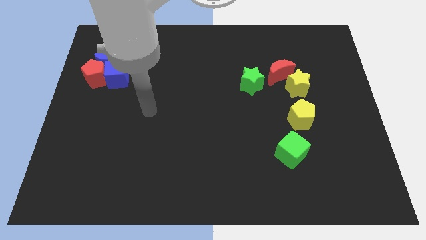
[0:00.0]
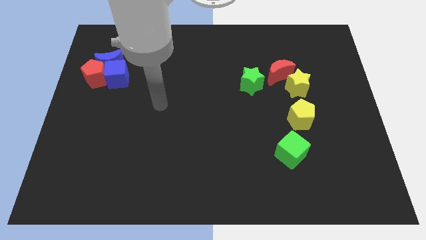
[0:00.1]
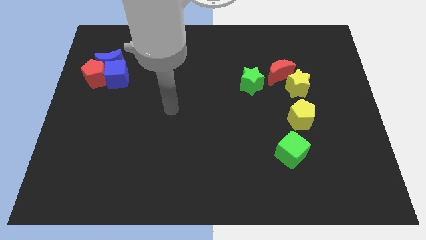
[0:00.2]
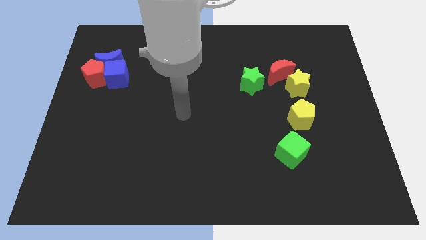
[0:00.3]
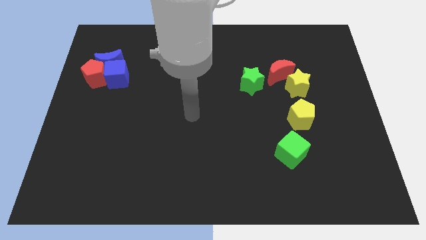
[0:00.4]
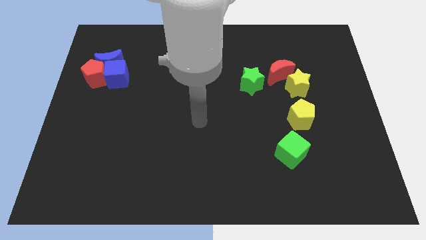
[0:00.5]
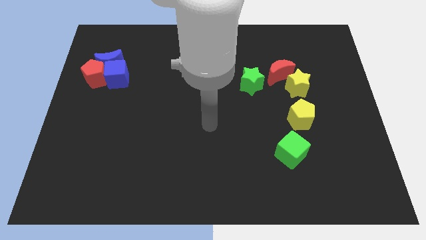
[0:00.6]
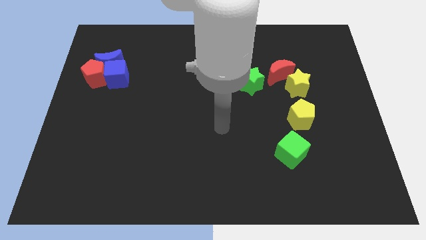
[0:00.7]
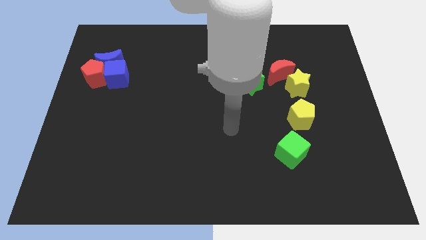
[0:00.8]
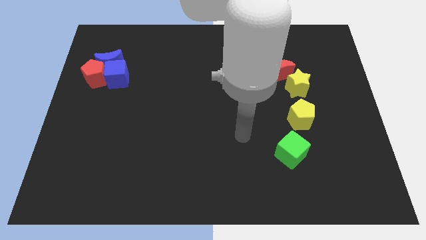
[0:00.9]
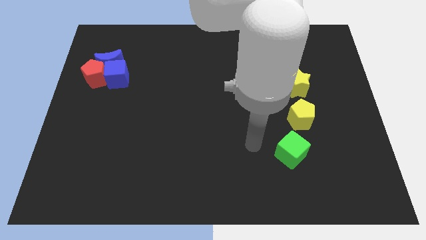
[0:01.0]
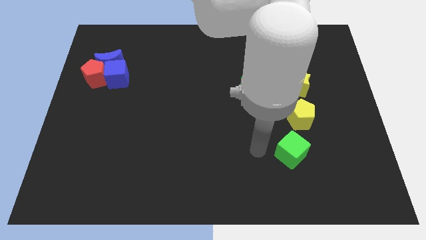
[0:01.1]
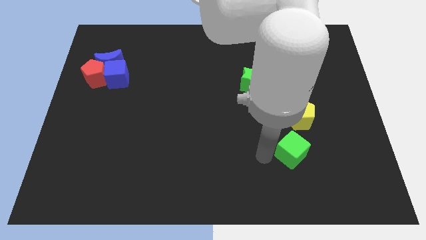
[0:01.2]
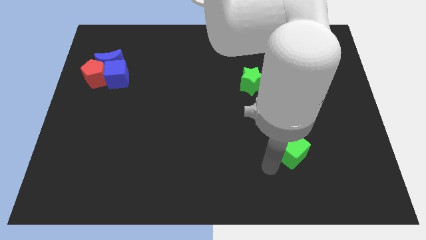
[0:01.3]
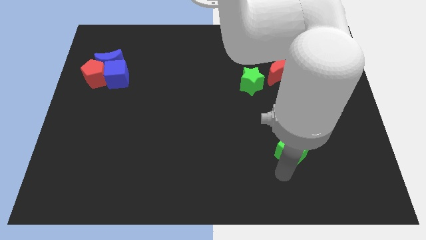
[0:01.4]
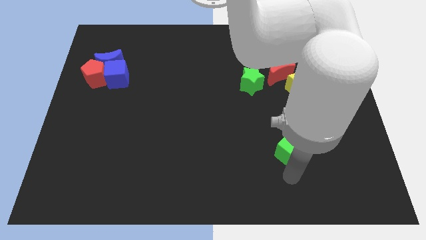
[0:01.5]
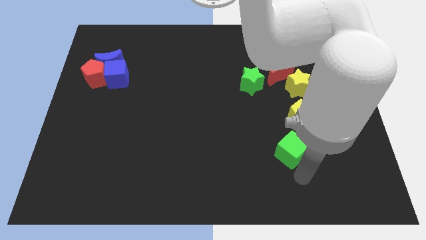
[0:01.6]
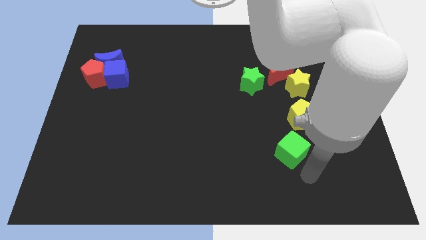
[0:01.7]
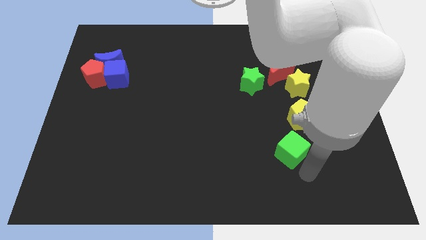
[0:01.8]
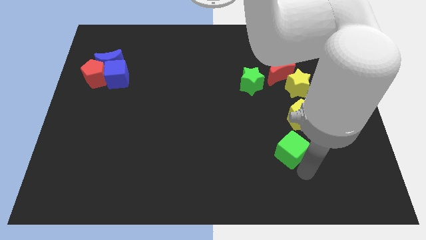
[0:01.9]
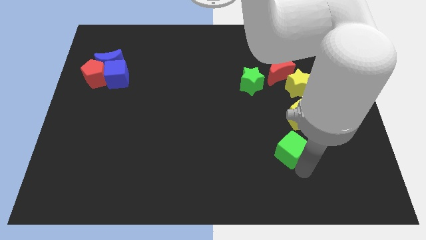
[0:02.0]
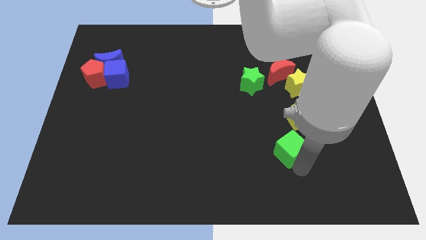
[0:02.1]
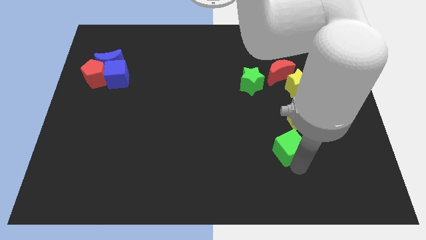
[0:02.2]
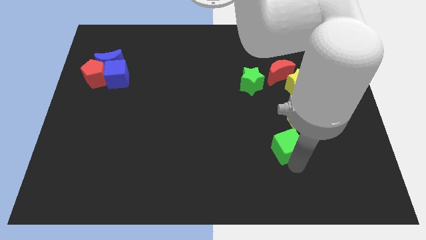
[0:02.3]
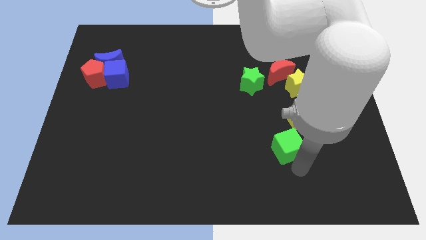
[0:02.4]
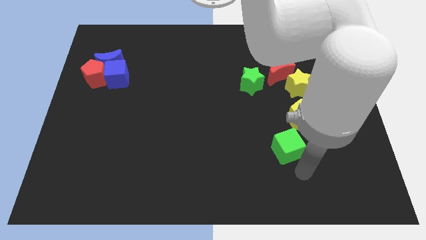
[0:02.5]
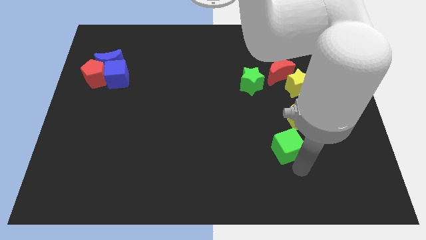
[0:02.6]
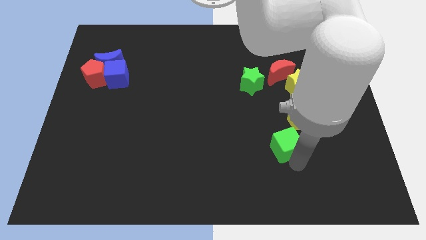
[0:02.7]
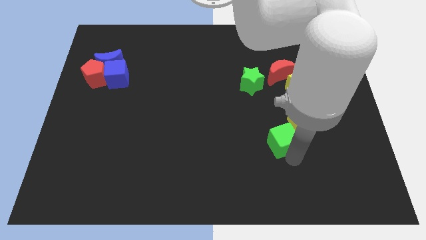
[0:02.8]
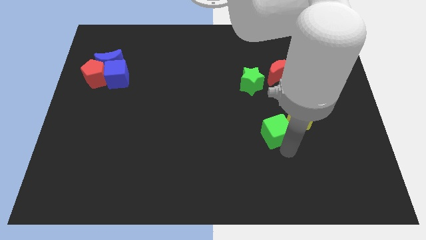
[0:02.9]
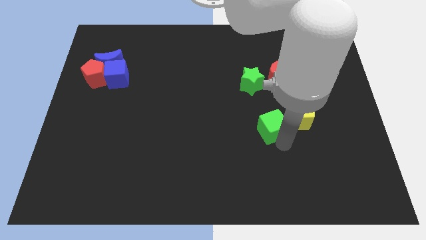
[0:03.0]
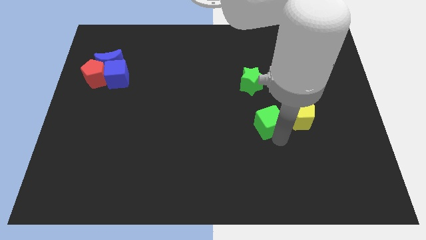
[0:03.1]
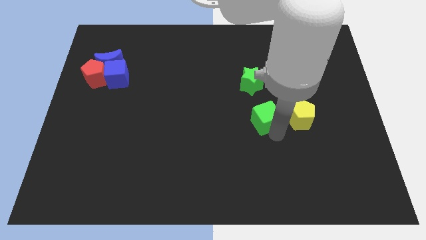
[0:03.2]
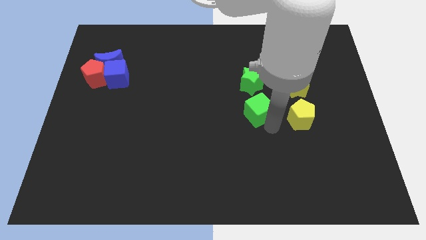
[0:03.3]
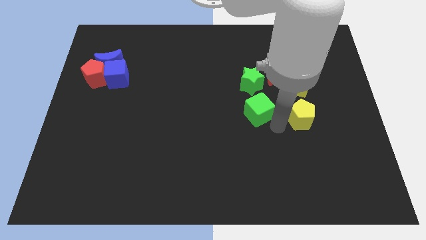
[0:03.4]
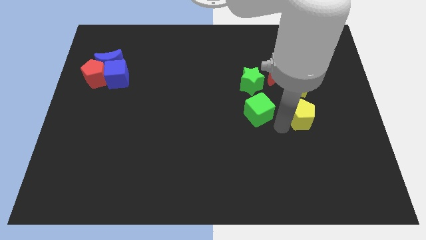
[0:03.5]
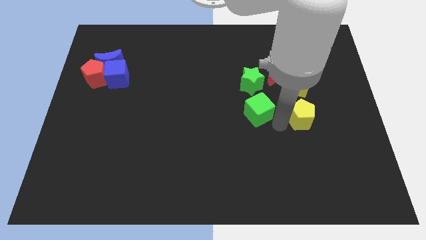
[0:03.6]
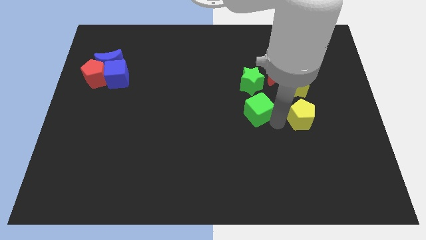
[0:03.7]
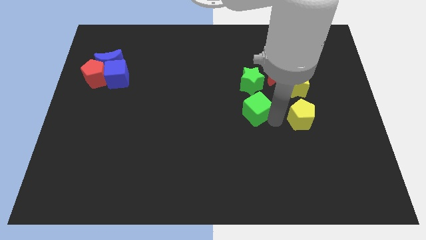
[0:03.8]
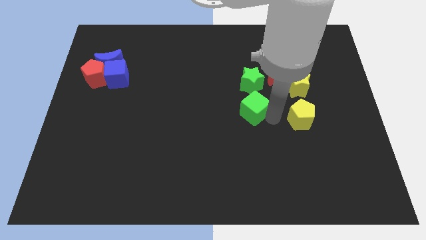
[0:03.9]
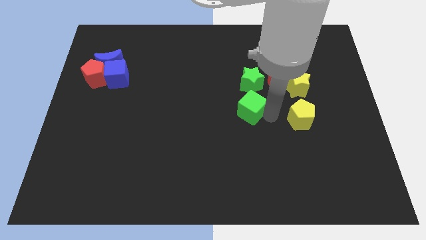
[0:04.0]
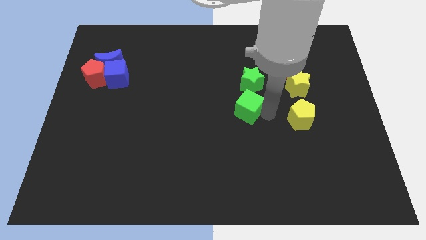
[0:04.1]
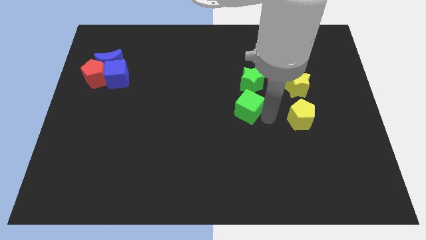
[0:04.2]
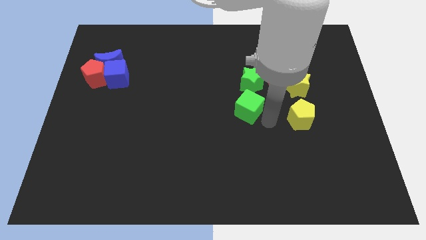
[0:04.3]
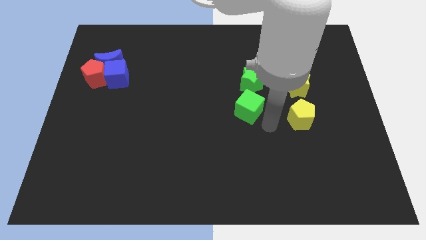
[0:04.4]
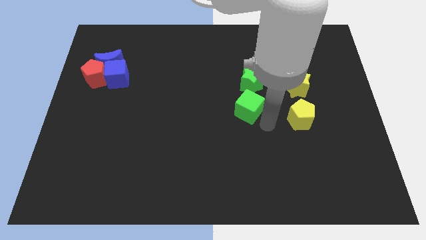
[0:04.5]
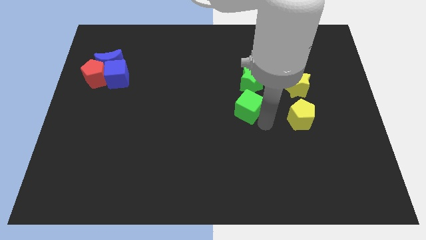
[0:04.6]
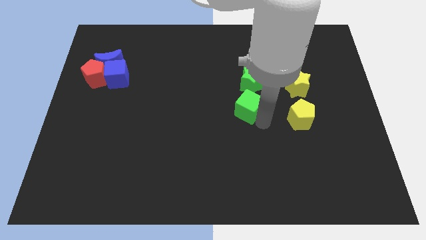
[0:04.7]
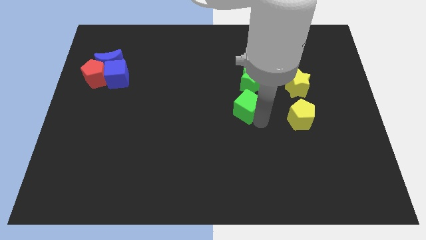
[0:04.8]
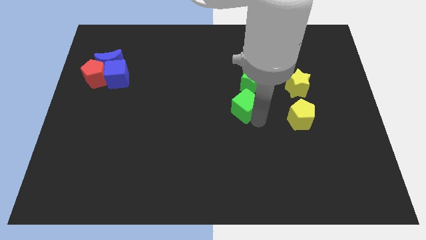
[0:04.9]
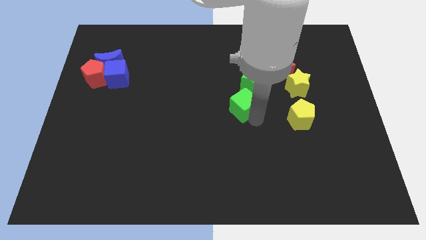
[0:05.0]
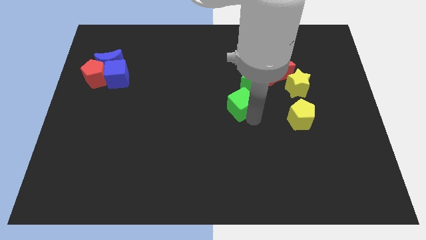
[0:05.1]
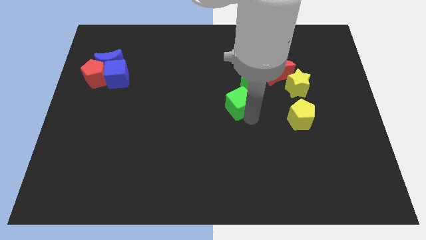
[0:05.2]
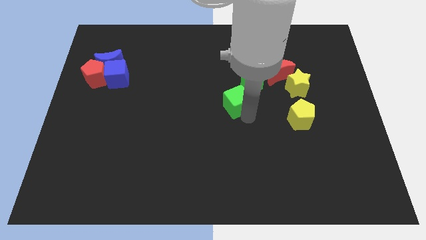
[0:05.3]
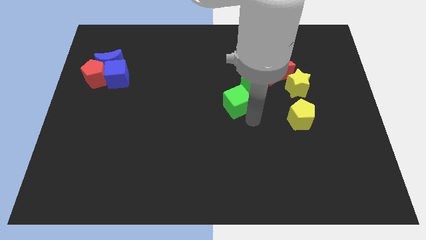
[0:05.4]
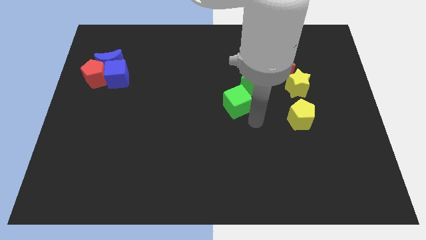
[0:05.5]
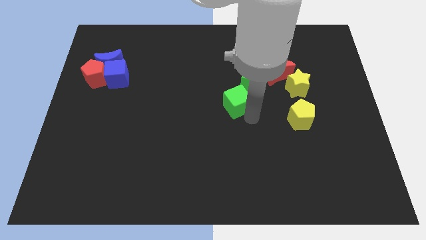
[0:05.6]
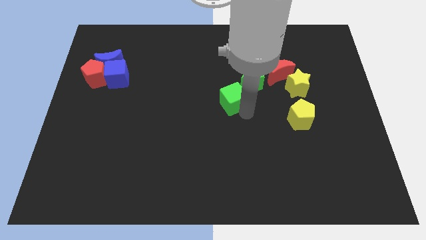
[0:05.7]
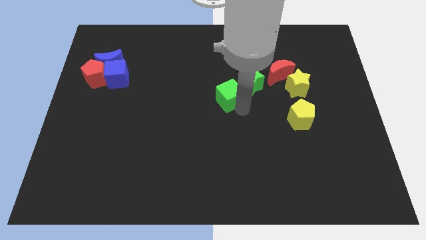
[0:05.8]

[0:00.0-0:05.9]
slide the green cube diagonally upwards and to the left

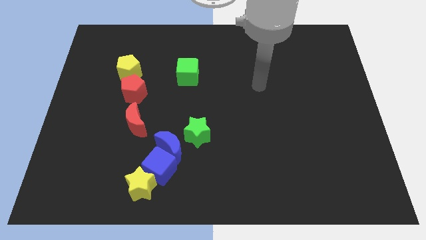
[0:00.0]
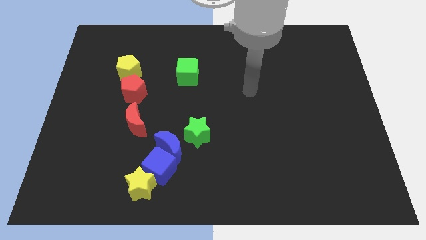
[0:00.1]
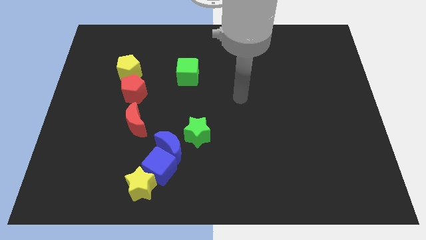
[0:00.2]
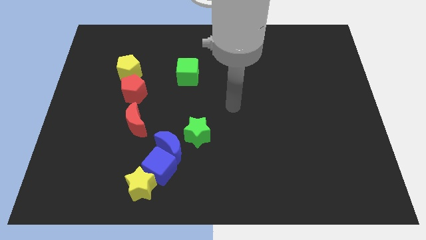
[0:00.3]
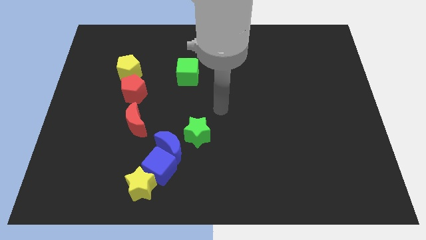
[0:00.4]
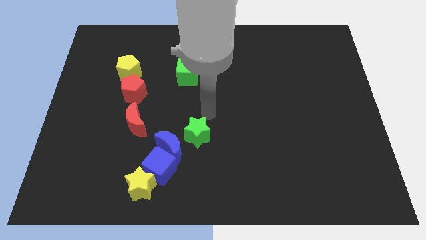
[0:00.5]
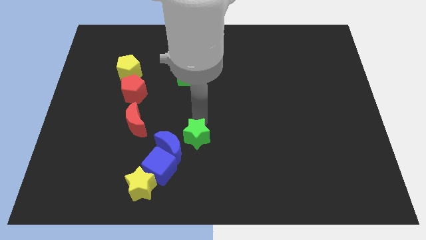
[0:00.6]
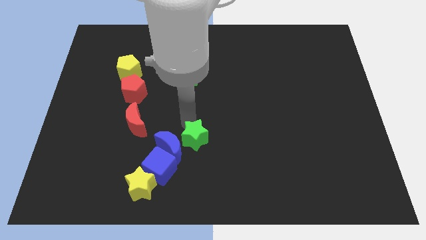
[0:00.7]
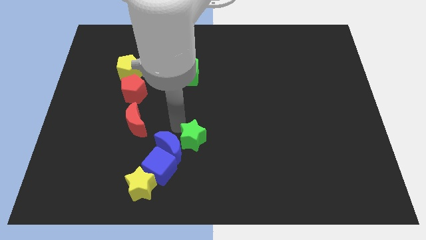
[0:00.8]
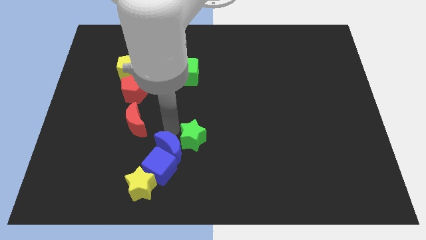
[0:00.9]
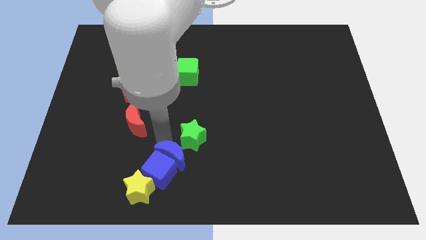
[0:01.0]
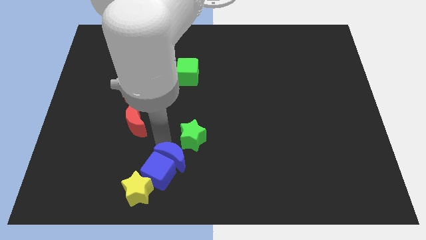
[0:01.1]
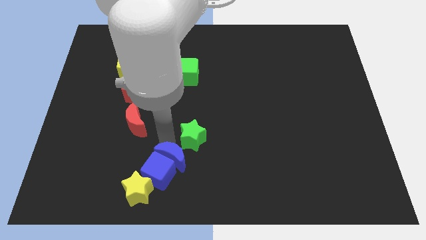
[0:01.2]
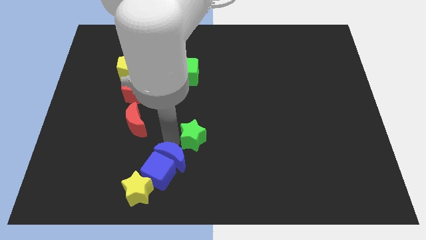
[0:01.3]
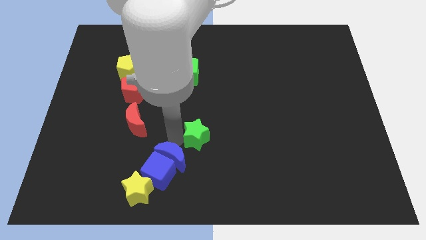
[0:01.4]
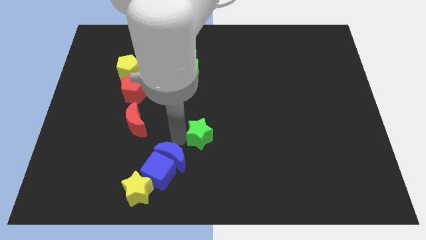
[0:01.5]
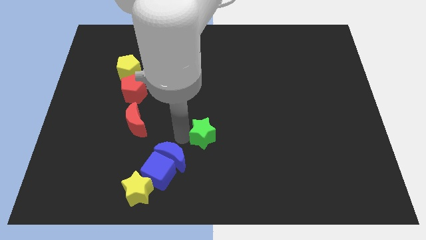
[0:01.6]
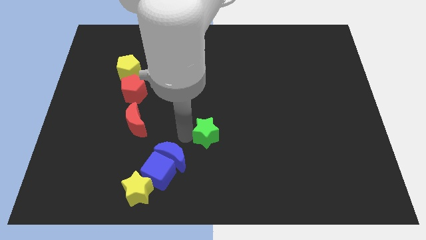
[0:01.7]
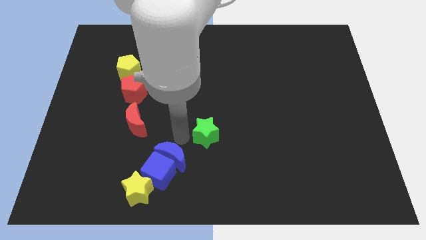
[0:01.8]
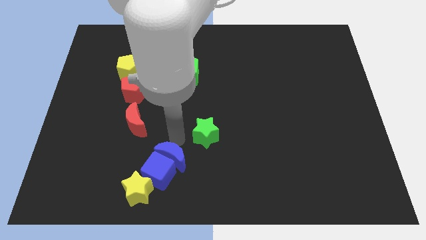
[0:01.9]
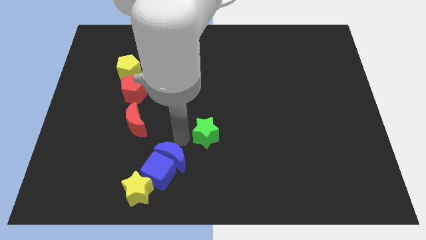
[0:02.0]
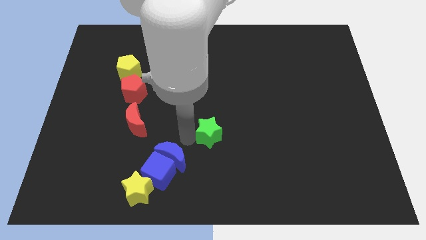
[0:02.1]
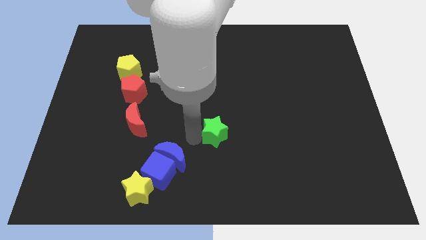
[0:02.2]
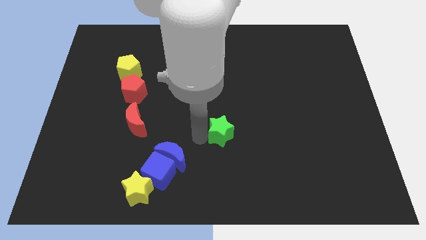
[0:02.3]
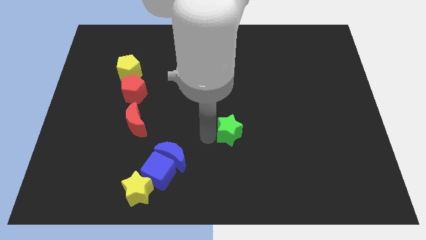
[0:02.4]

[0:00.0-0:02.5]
slide the green star somewhat right
